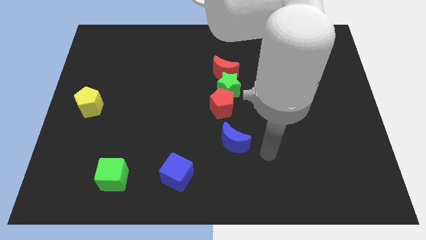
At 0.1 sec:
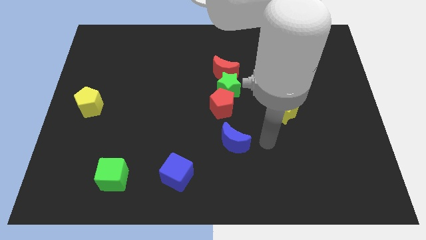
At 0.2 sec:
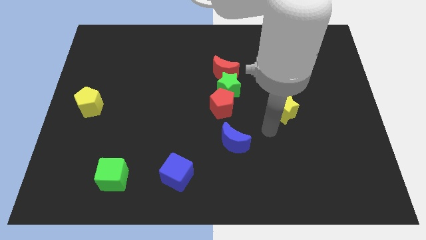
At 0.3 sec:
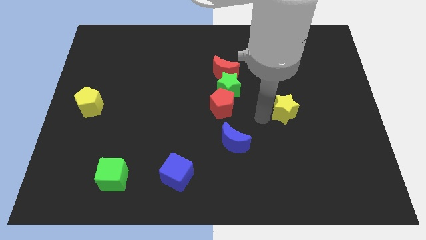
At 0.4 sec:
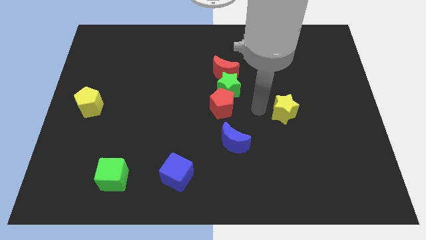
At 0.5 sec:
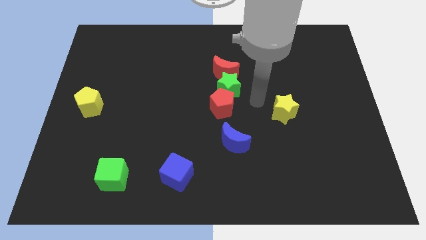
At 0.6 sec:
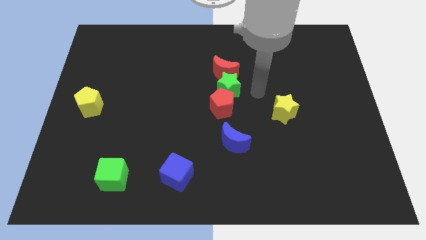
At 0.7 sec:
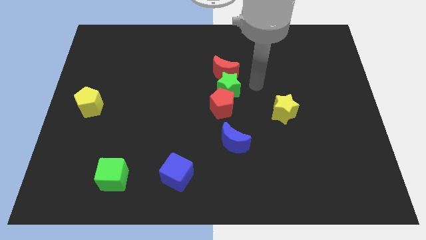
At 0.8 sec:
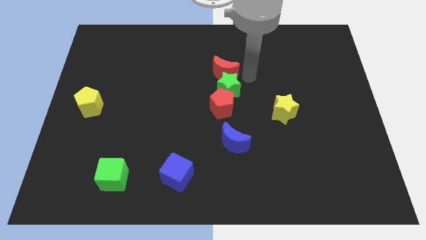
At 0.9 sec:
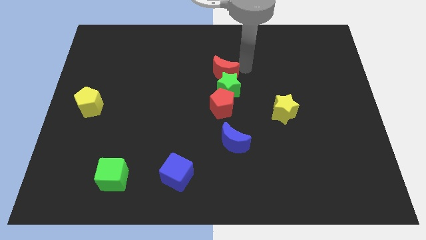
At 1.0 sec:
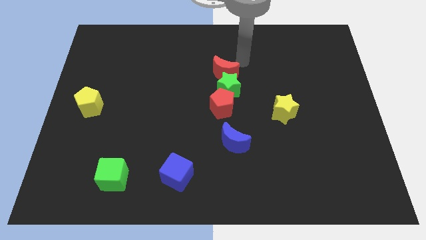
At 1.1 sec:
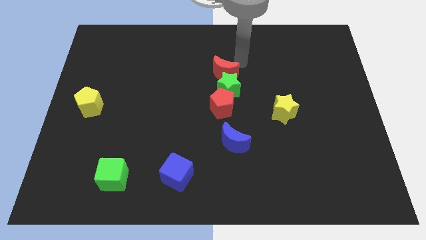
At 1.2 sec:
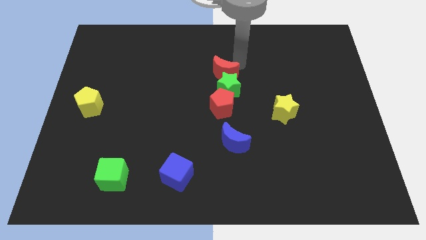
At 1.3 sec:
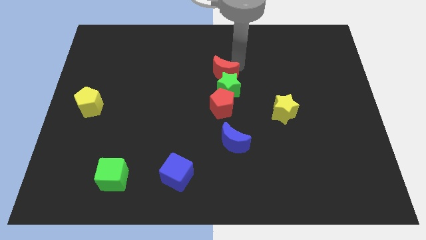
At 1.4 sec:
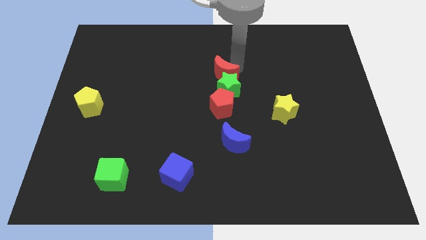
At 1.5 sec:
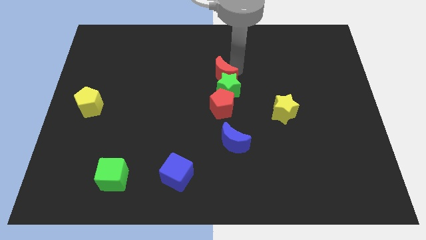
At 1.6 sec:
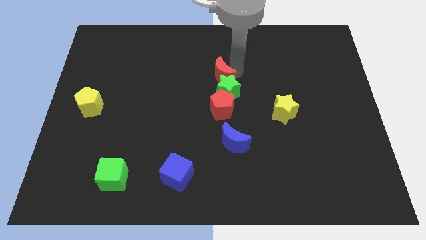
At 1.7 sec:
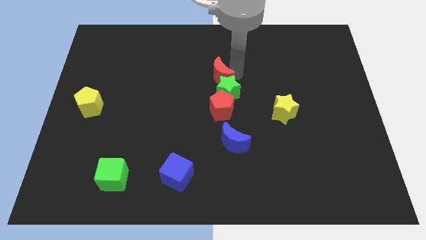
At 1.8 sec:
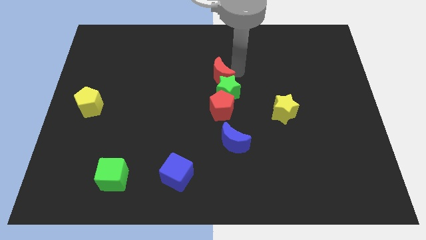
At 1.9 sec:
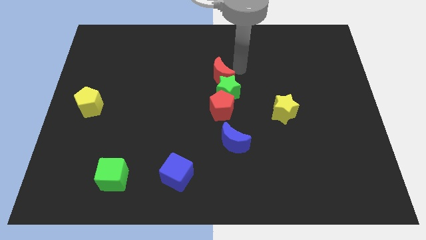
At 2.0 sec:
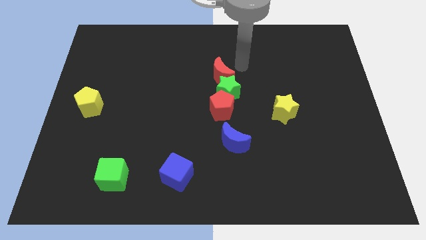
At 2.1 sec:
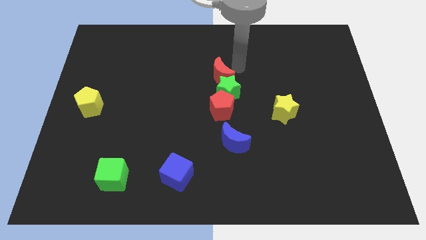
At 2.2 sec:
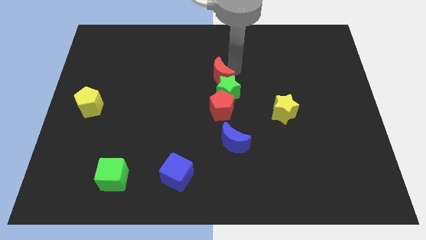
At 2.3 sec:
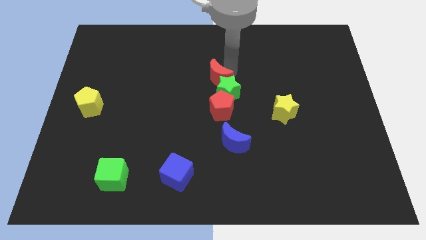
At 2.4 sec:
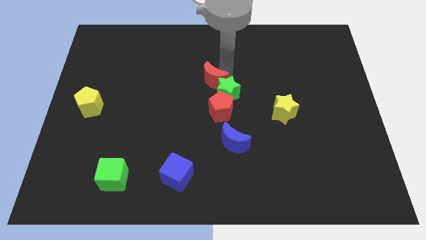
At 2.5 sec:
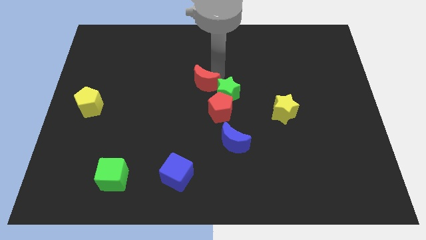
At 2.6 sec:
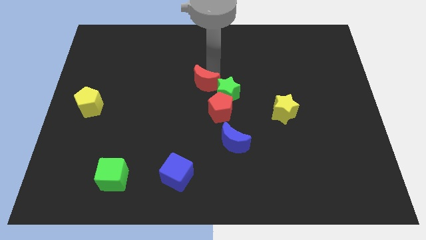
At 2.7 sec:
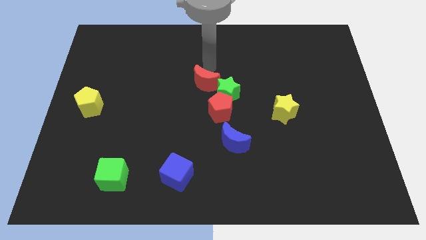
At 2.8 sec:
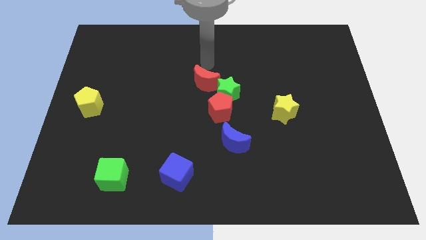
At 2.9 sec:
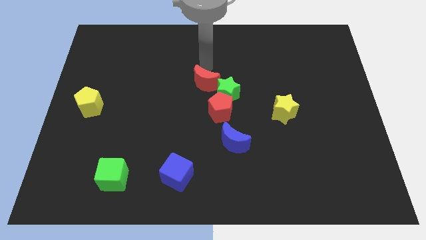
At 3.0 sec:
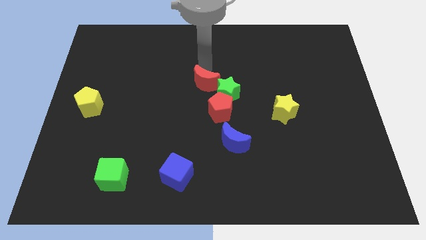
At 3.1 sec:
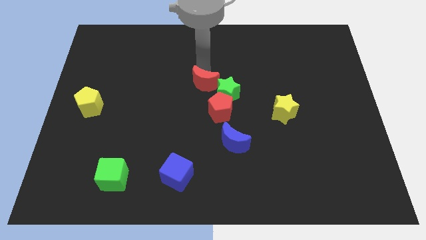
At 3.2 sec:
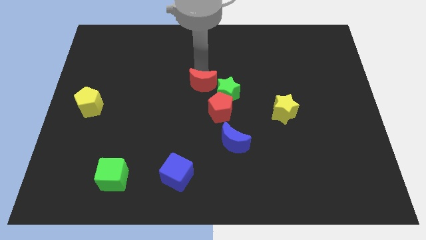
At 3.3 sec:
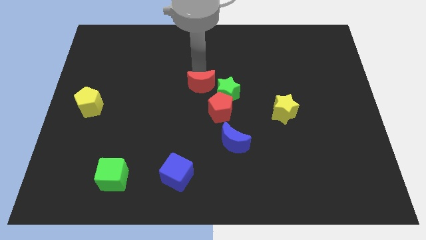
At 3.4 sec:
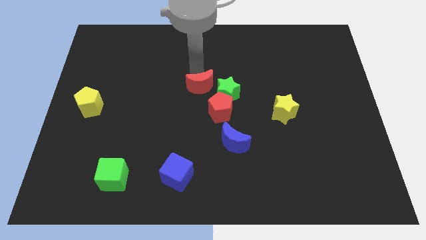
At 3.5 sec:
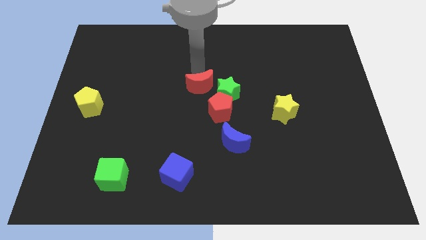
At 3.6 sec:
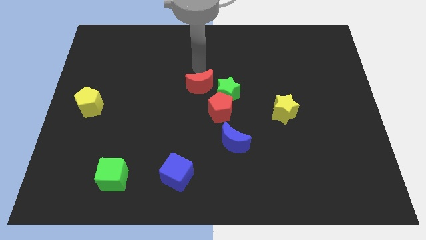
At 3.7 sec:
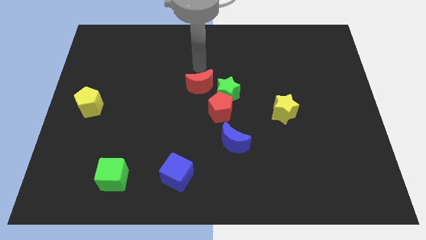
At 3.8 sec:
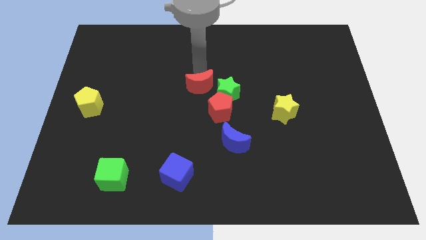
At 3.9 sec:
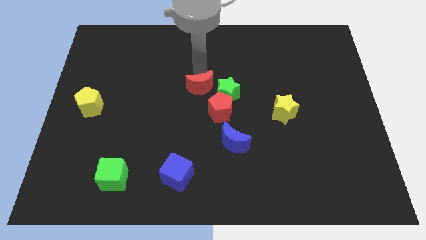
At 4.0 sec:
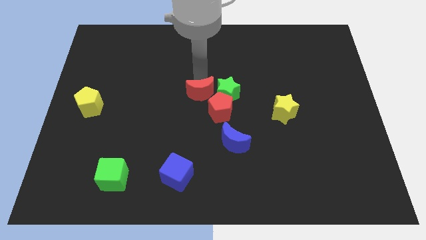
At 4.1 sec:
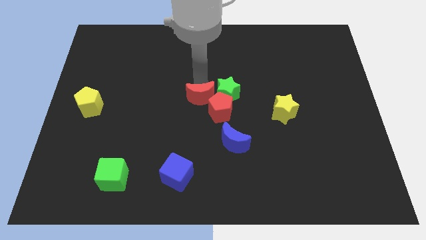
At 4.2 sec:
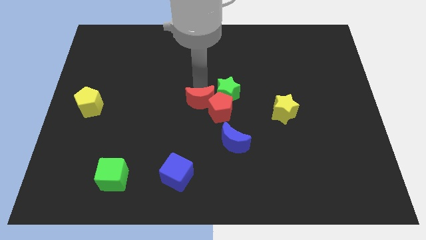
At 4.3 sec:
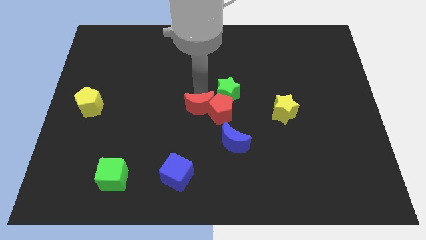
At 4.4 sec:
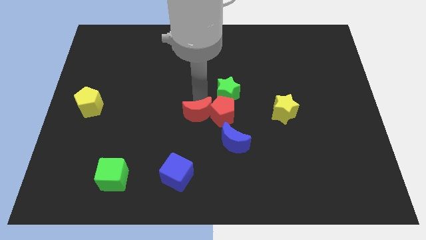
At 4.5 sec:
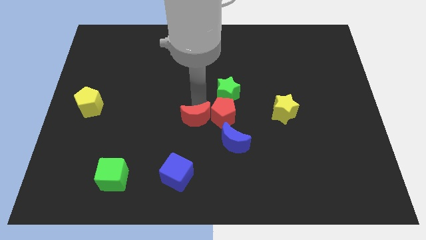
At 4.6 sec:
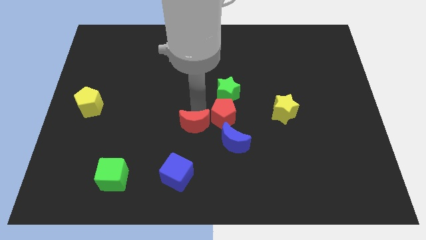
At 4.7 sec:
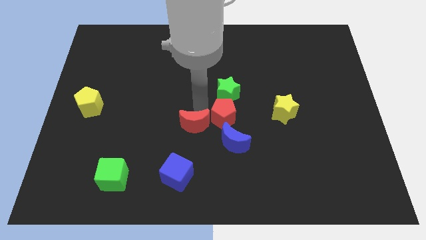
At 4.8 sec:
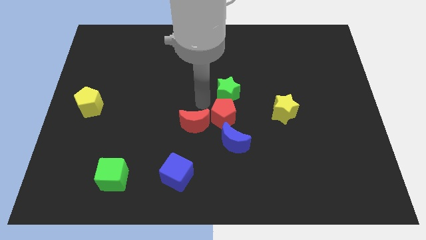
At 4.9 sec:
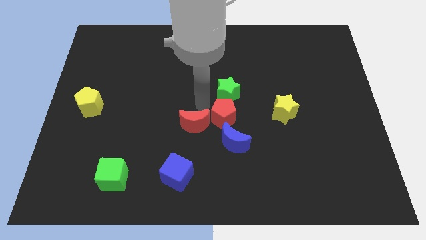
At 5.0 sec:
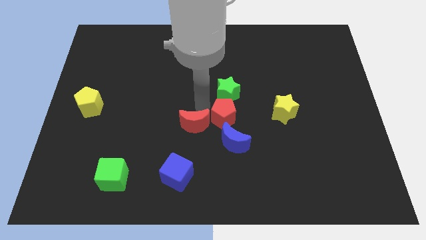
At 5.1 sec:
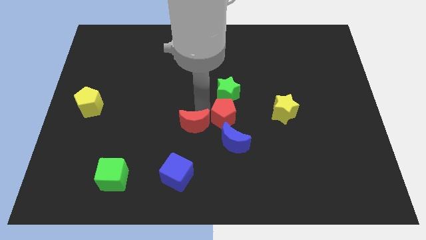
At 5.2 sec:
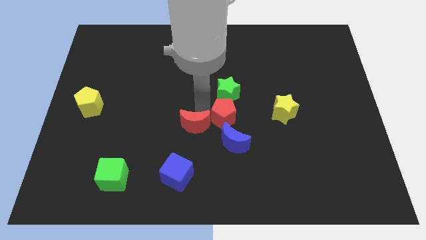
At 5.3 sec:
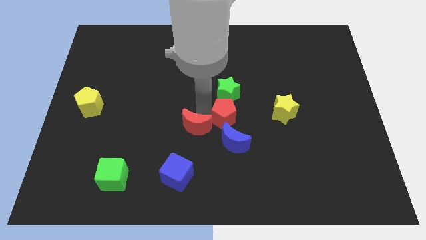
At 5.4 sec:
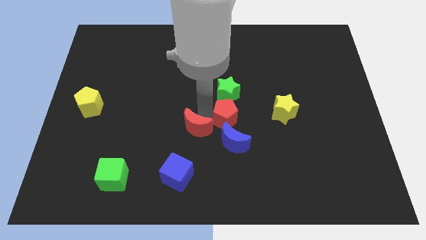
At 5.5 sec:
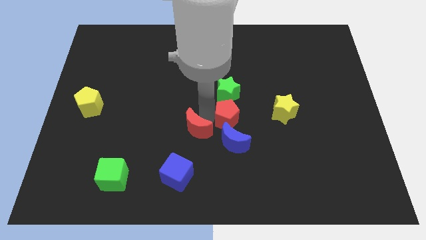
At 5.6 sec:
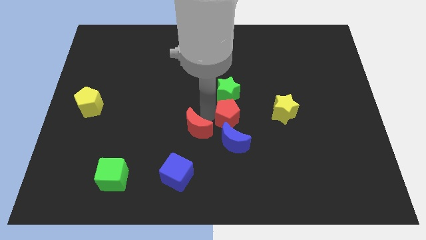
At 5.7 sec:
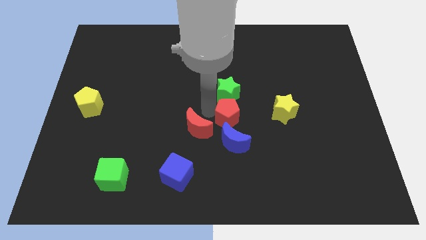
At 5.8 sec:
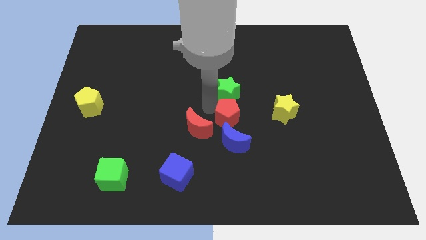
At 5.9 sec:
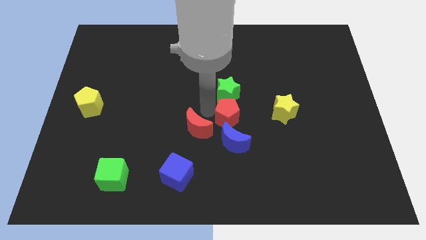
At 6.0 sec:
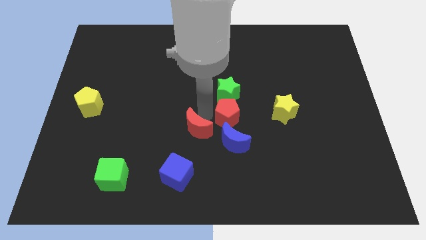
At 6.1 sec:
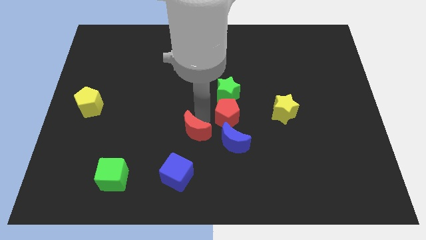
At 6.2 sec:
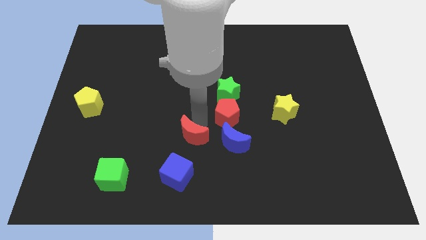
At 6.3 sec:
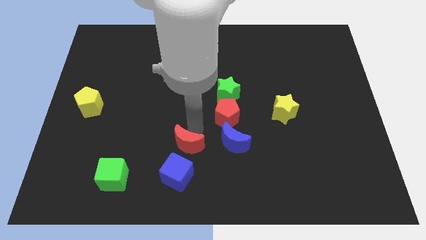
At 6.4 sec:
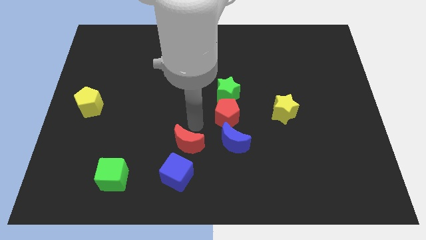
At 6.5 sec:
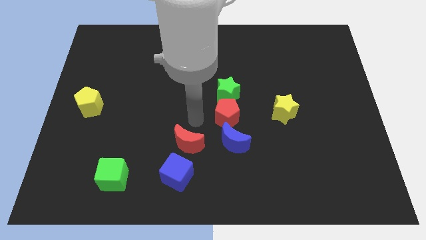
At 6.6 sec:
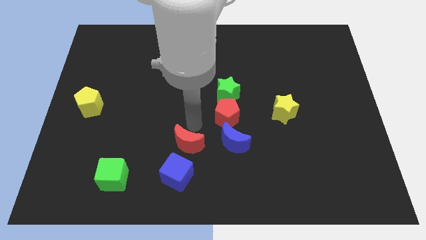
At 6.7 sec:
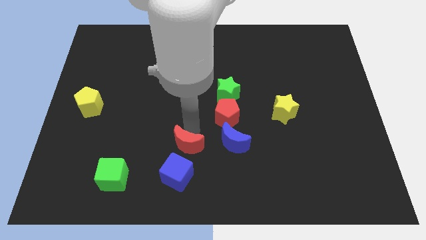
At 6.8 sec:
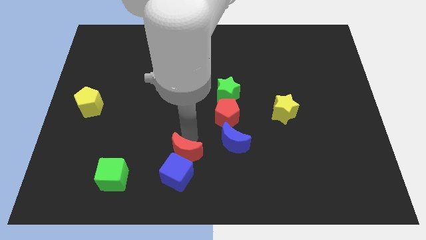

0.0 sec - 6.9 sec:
push the red moon close to the blue cube
